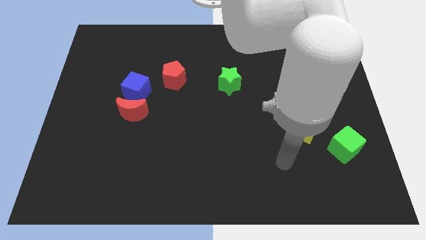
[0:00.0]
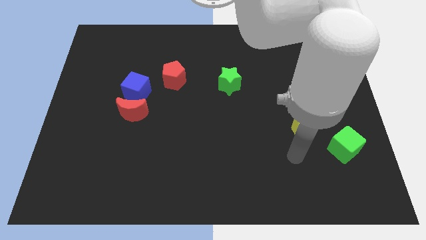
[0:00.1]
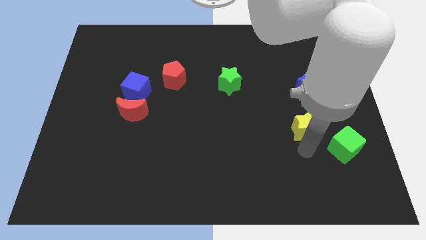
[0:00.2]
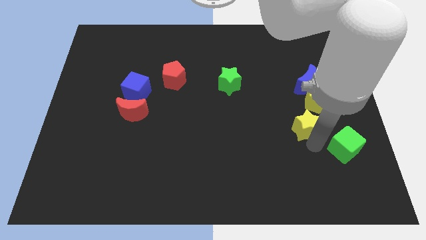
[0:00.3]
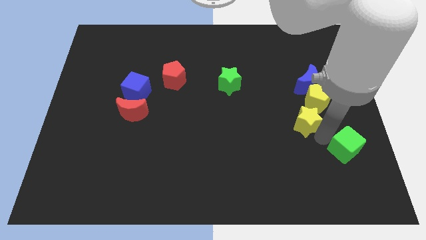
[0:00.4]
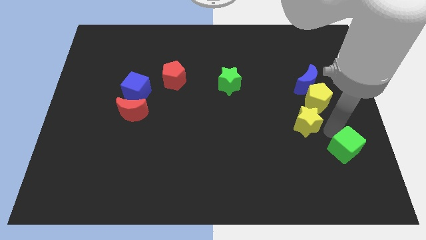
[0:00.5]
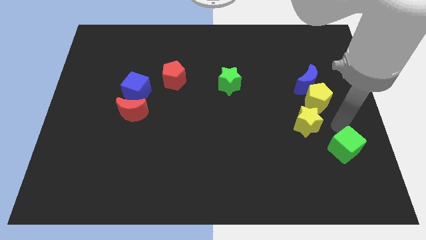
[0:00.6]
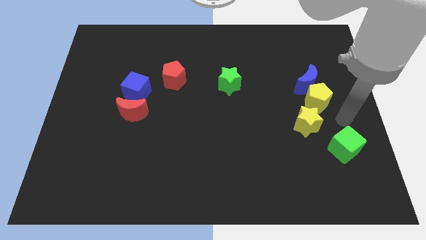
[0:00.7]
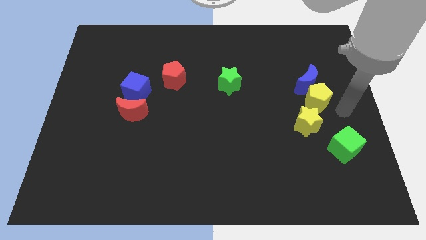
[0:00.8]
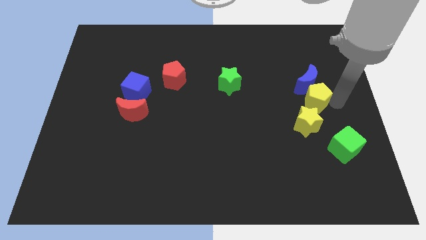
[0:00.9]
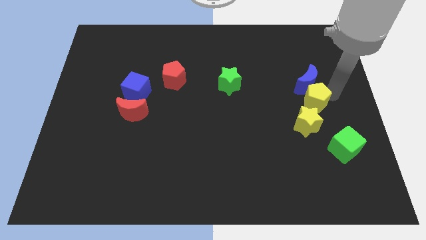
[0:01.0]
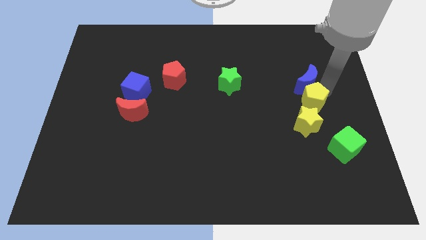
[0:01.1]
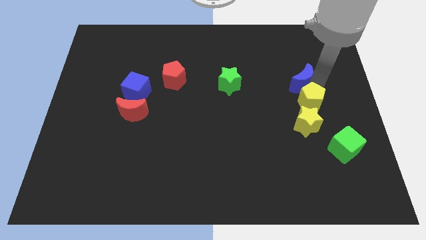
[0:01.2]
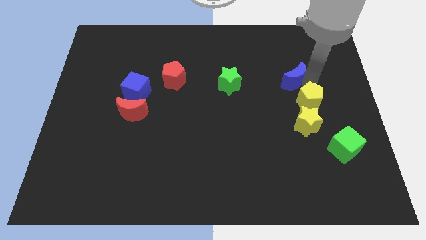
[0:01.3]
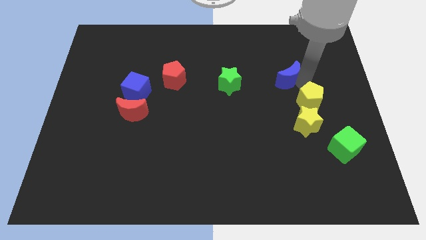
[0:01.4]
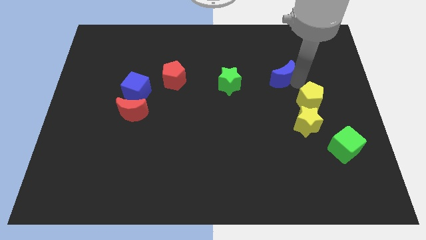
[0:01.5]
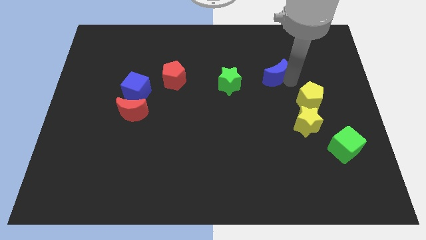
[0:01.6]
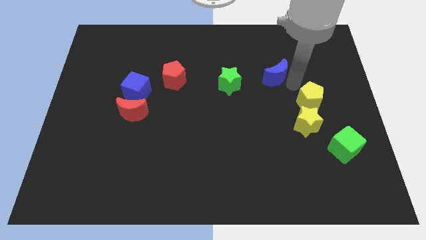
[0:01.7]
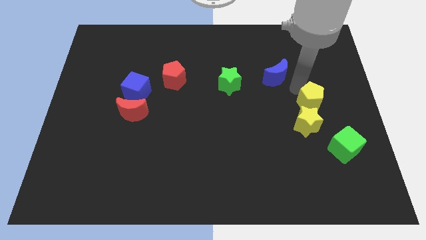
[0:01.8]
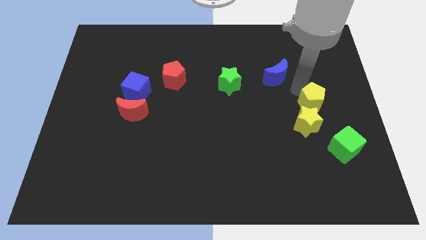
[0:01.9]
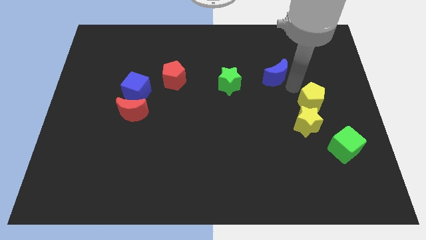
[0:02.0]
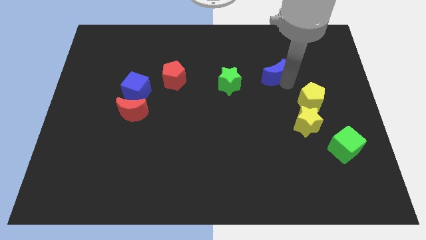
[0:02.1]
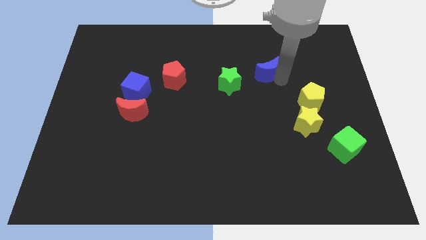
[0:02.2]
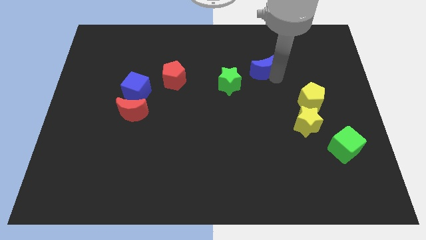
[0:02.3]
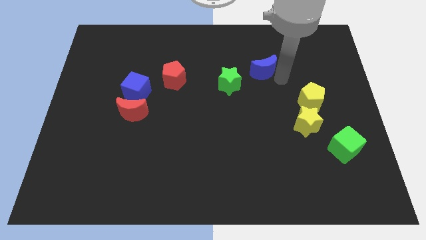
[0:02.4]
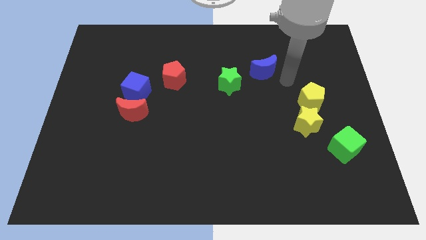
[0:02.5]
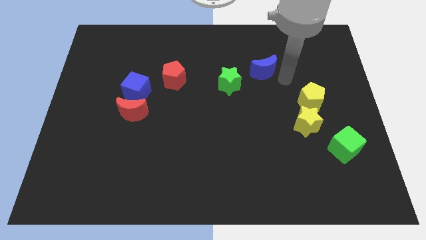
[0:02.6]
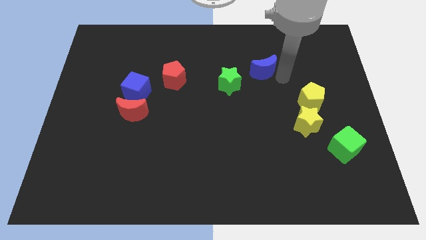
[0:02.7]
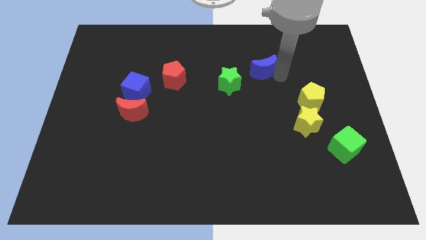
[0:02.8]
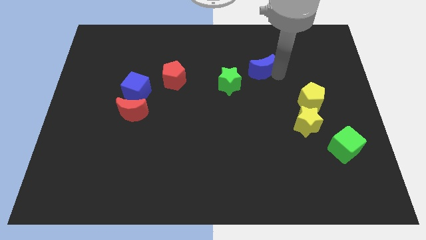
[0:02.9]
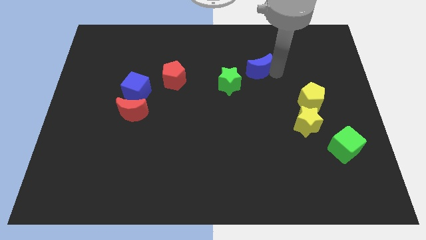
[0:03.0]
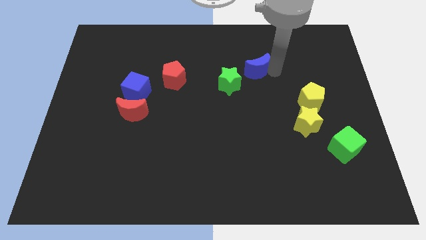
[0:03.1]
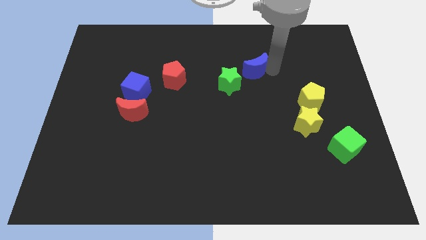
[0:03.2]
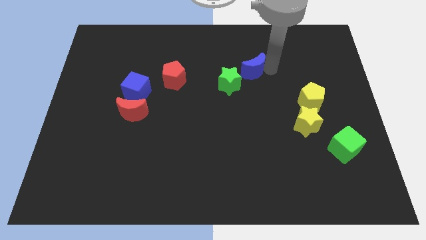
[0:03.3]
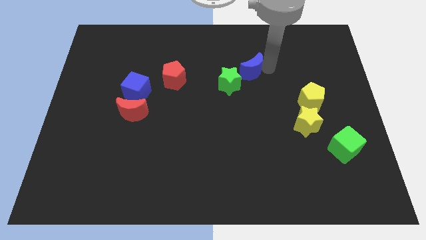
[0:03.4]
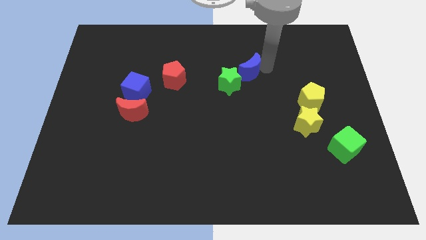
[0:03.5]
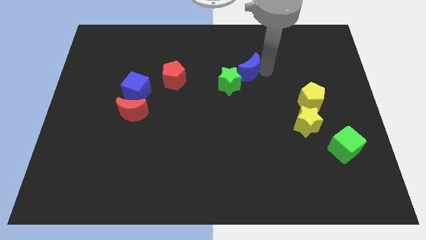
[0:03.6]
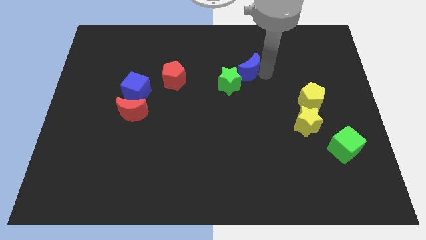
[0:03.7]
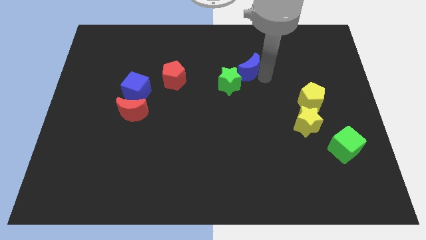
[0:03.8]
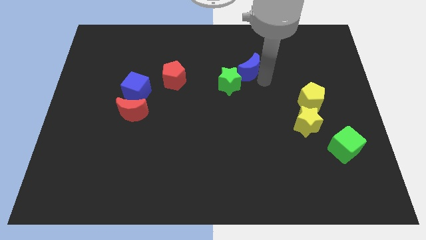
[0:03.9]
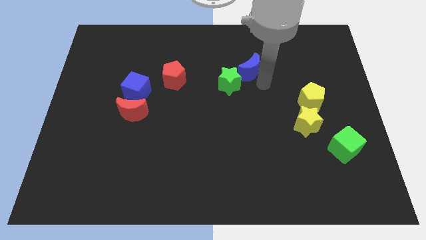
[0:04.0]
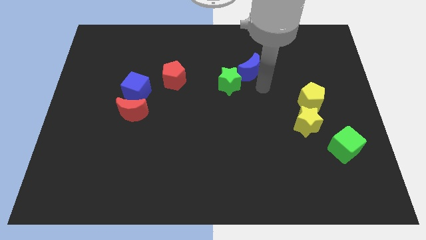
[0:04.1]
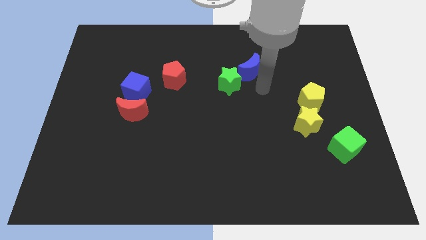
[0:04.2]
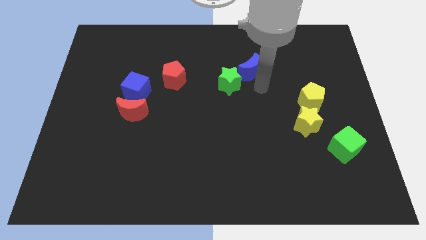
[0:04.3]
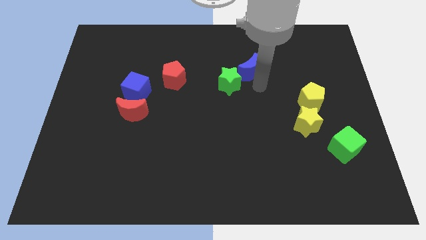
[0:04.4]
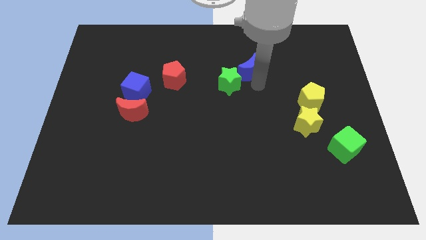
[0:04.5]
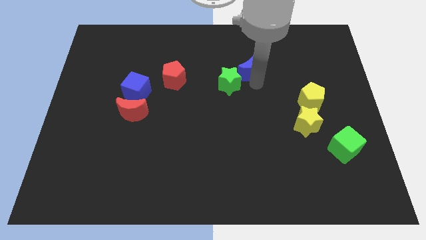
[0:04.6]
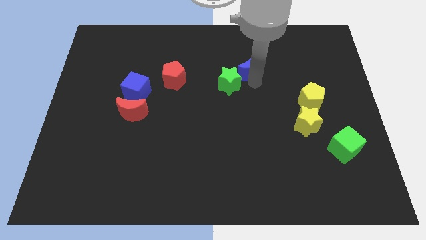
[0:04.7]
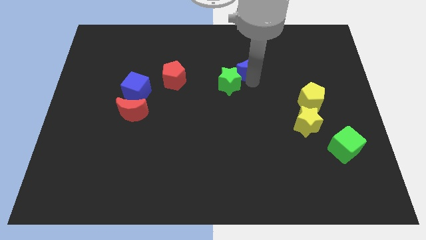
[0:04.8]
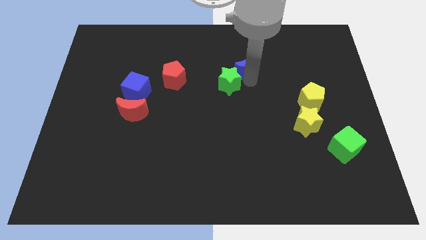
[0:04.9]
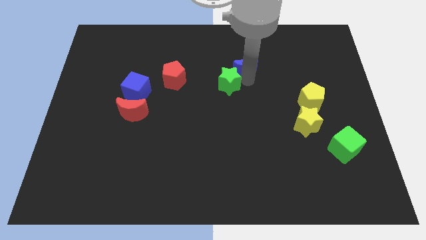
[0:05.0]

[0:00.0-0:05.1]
put the blue moon above the green star

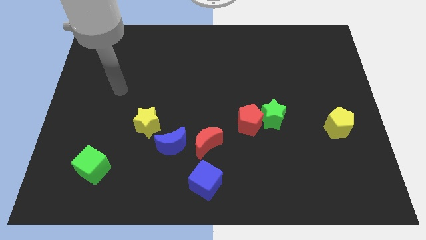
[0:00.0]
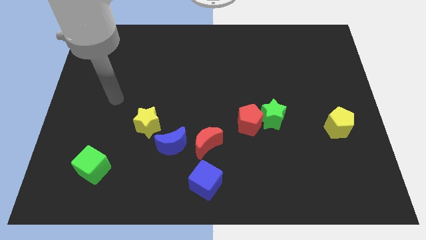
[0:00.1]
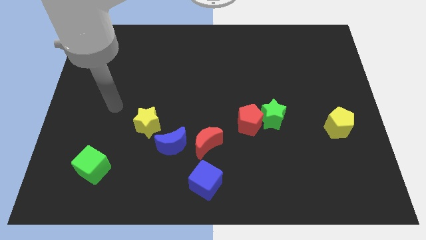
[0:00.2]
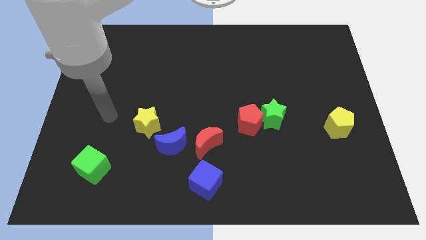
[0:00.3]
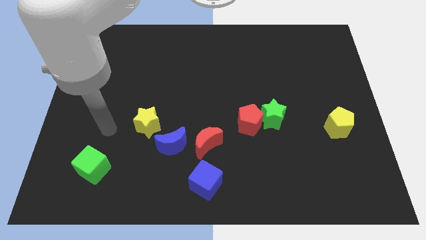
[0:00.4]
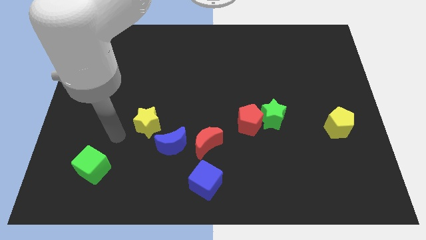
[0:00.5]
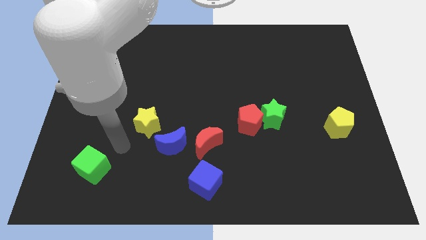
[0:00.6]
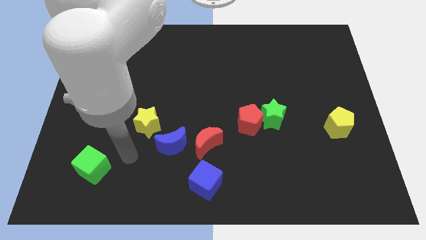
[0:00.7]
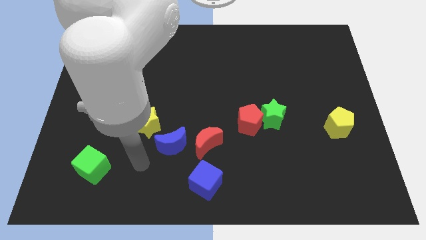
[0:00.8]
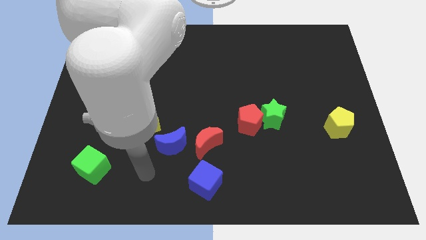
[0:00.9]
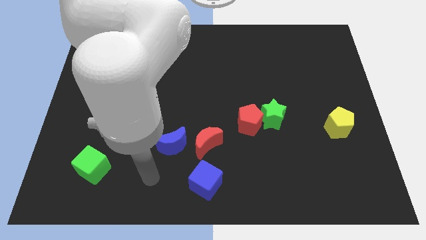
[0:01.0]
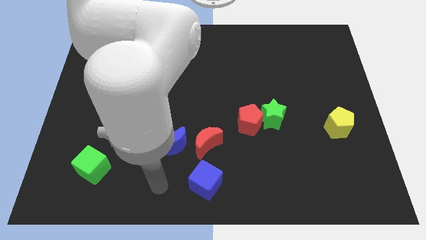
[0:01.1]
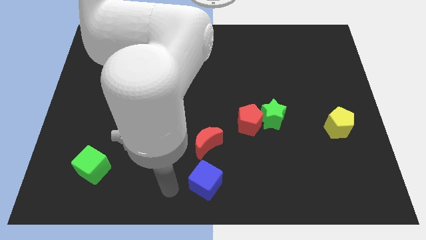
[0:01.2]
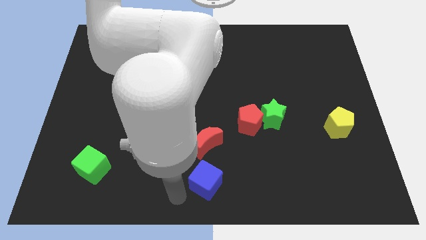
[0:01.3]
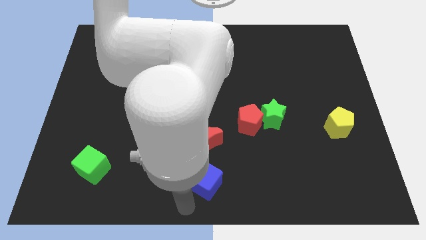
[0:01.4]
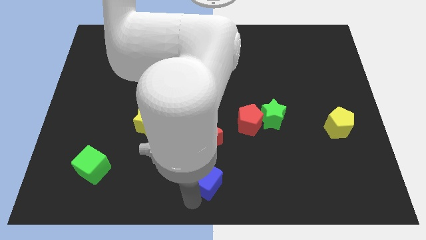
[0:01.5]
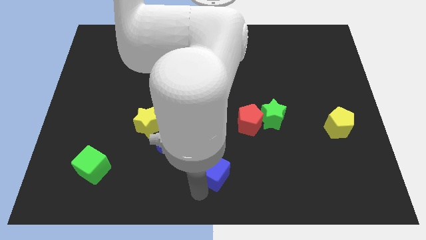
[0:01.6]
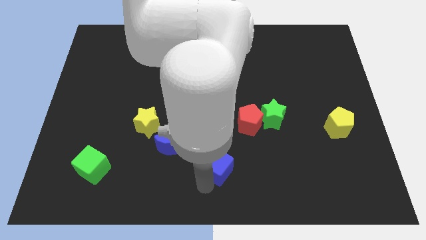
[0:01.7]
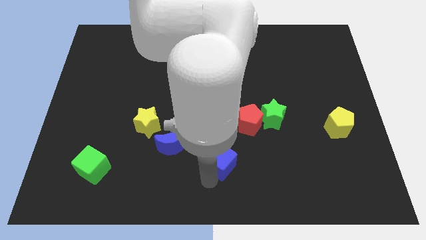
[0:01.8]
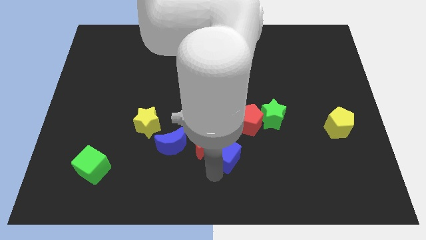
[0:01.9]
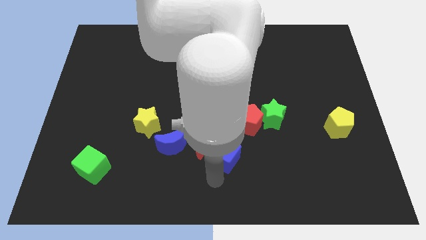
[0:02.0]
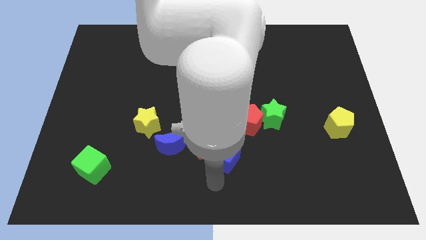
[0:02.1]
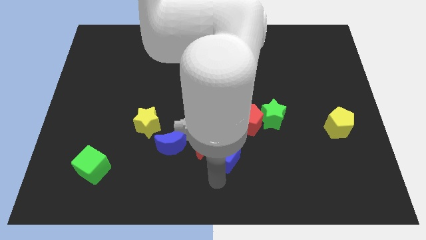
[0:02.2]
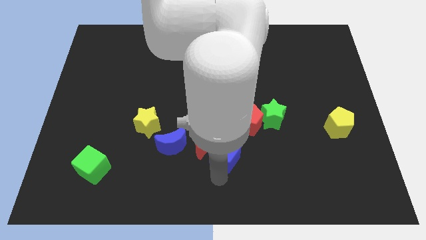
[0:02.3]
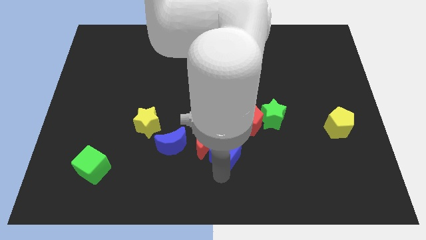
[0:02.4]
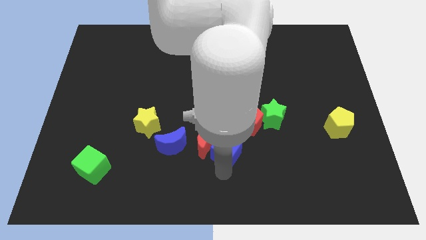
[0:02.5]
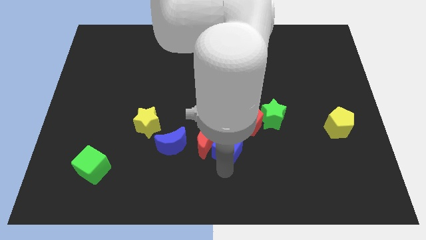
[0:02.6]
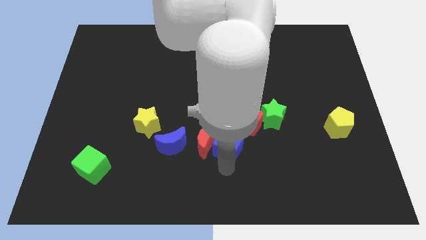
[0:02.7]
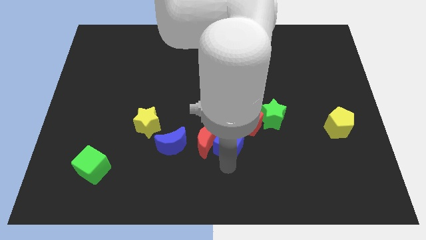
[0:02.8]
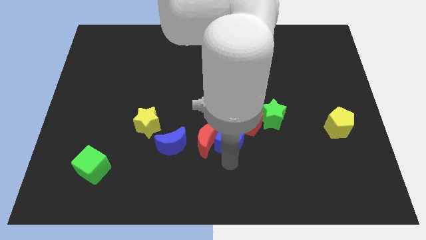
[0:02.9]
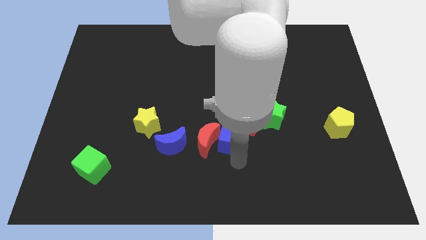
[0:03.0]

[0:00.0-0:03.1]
move the blue cube to the left side of the red pentagon
